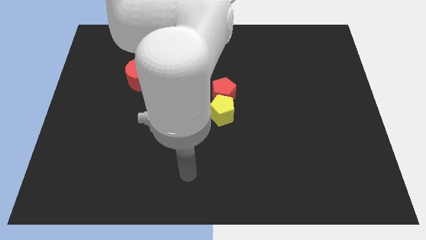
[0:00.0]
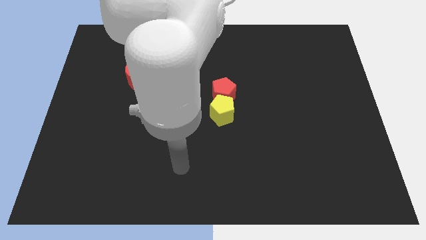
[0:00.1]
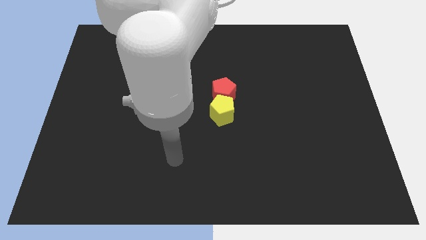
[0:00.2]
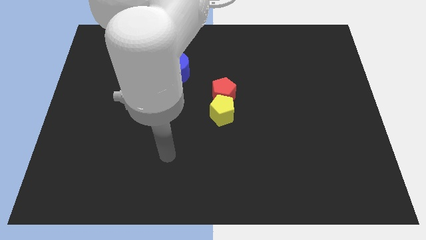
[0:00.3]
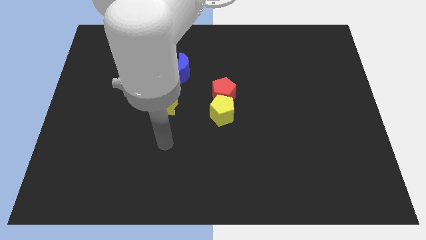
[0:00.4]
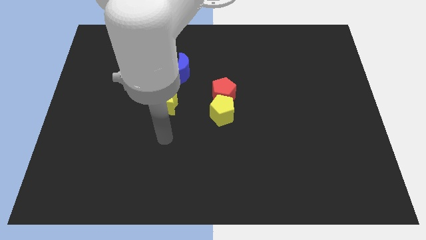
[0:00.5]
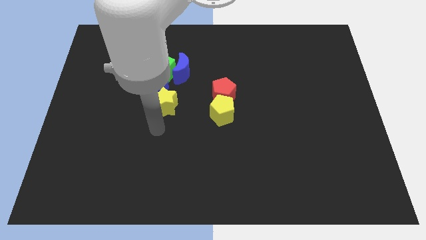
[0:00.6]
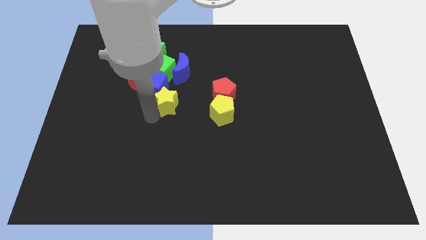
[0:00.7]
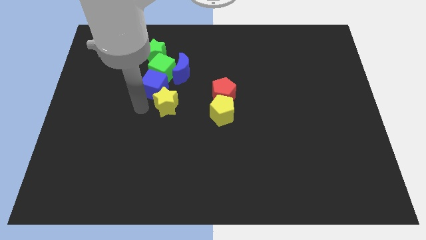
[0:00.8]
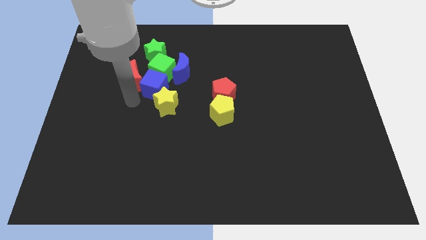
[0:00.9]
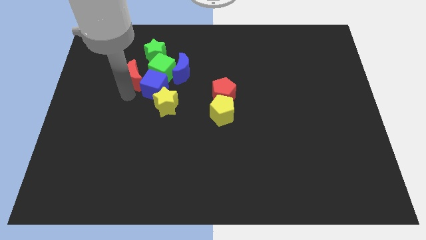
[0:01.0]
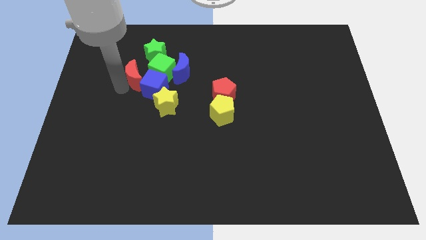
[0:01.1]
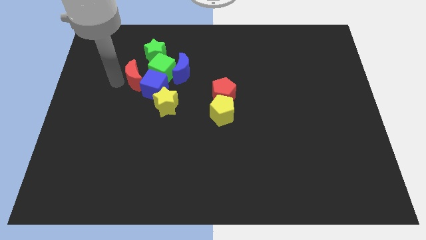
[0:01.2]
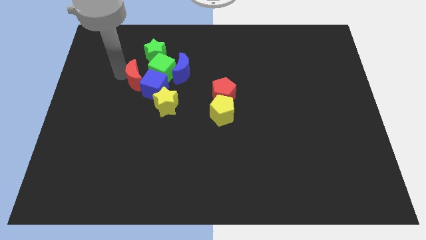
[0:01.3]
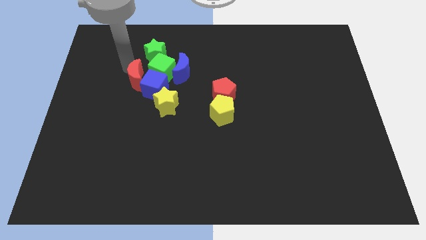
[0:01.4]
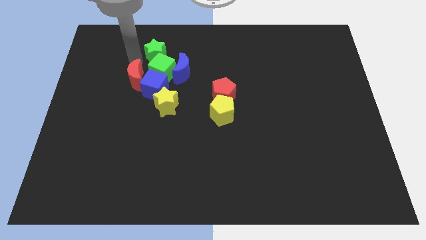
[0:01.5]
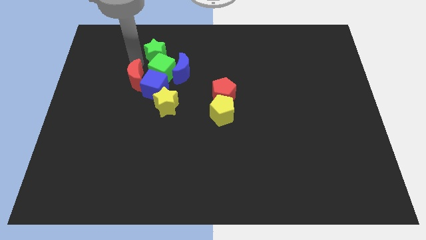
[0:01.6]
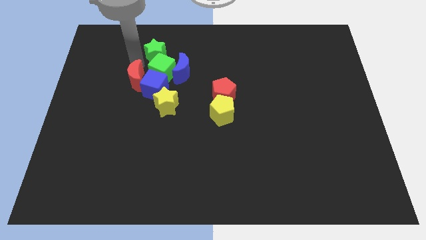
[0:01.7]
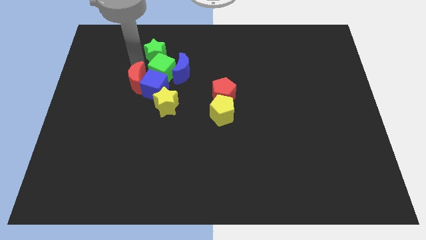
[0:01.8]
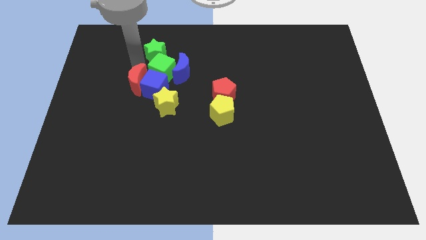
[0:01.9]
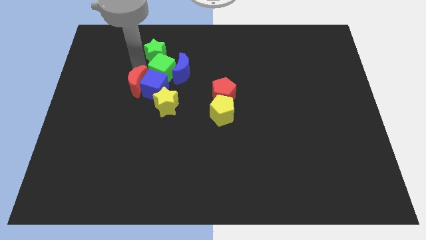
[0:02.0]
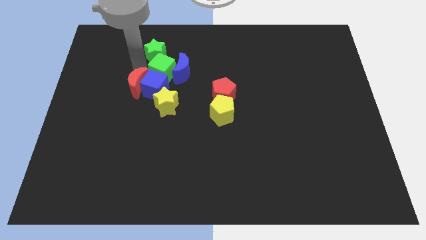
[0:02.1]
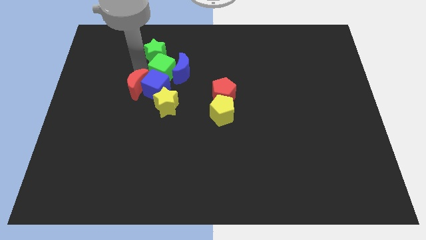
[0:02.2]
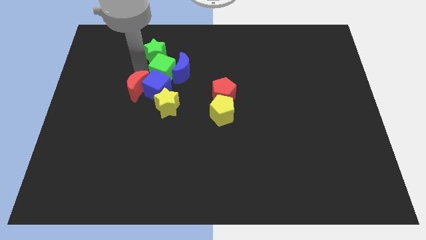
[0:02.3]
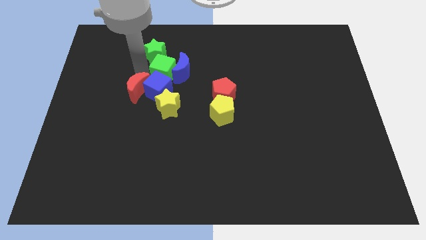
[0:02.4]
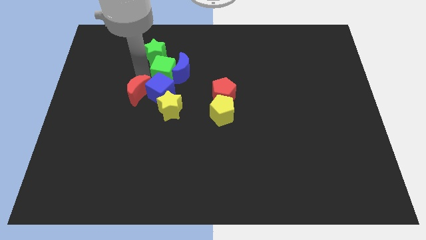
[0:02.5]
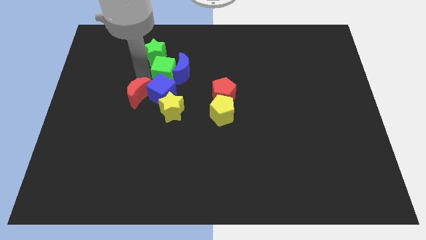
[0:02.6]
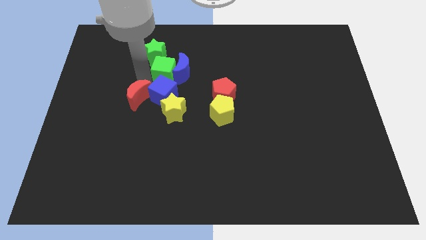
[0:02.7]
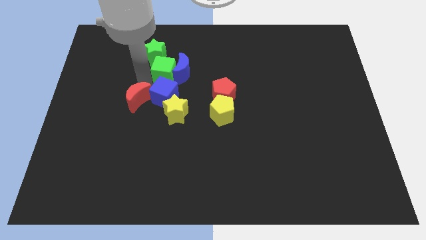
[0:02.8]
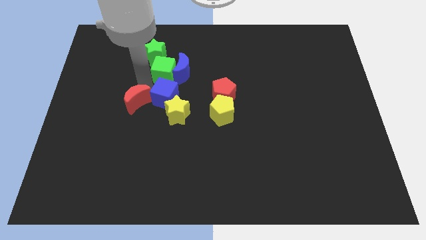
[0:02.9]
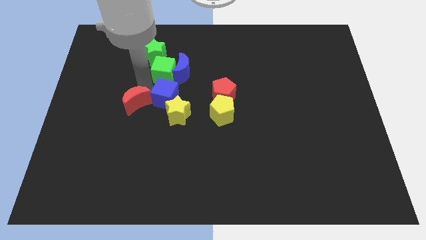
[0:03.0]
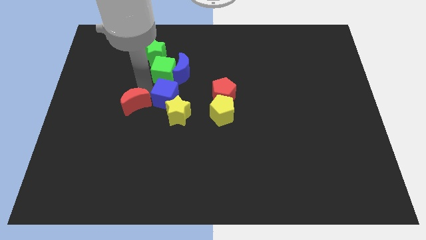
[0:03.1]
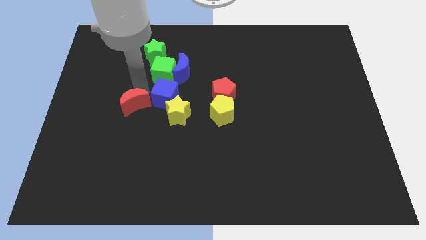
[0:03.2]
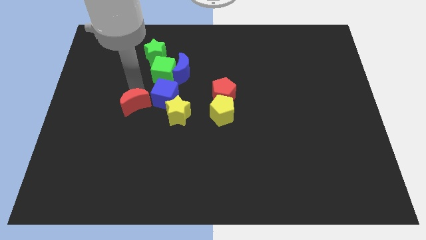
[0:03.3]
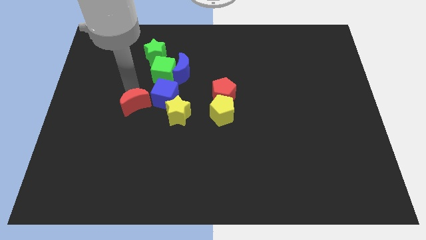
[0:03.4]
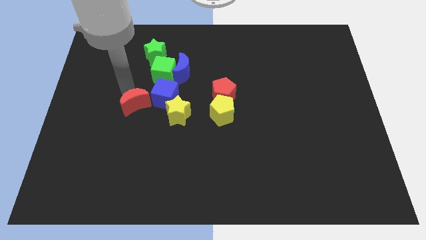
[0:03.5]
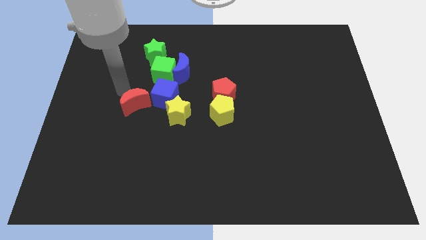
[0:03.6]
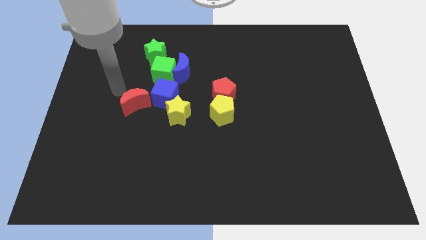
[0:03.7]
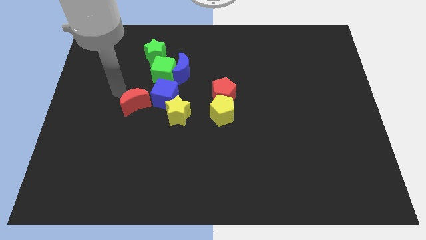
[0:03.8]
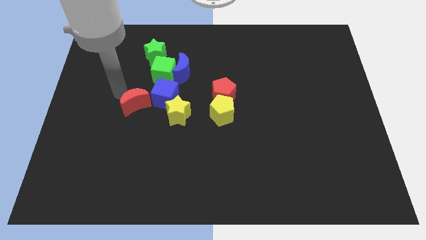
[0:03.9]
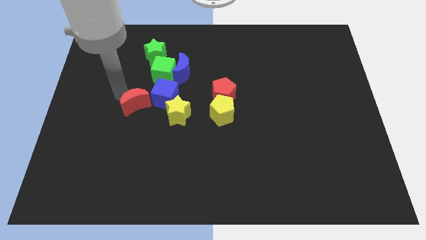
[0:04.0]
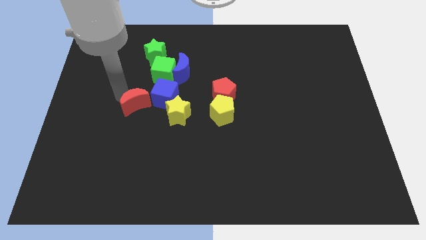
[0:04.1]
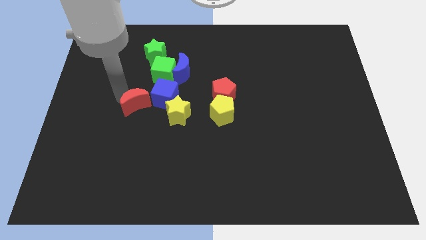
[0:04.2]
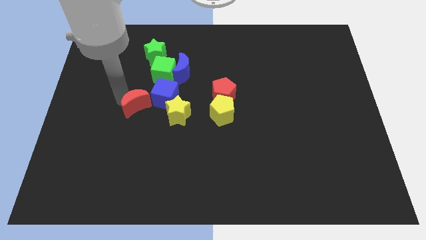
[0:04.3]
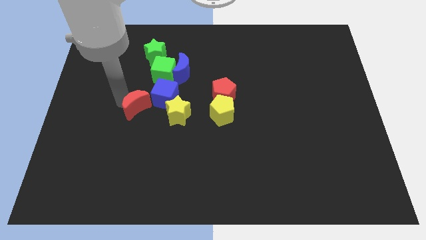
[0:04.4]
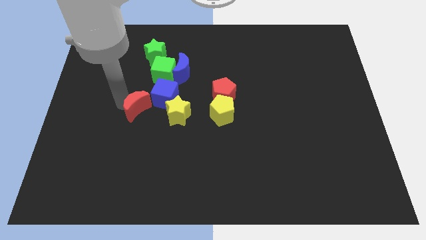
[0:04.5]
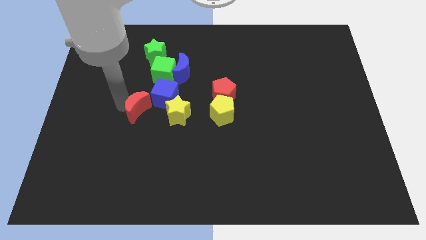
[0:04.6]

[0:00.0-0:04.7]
slightly push the red moon down and to the right diagonally

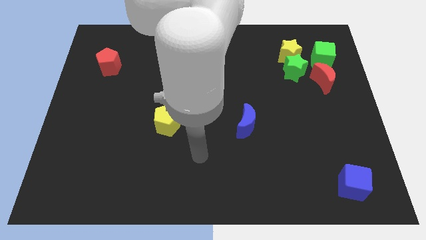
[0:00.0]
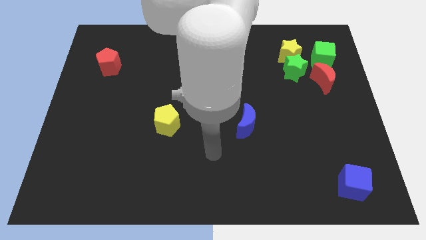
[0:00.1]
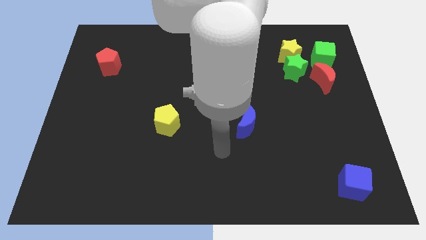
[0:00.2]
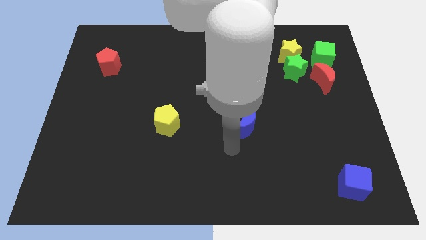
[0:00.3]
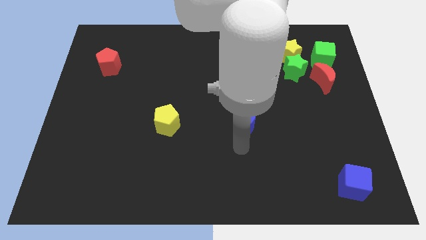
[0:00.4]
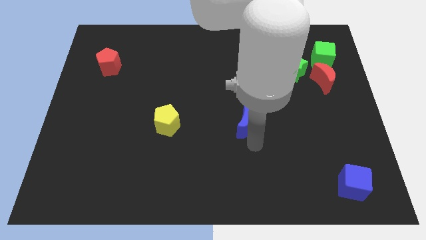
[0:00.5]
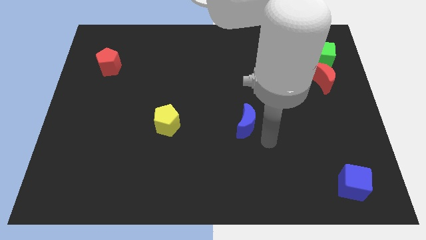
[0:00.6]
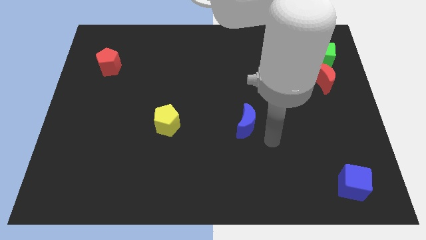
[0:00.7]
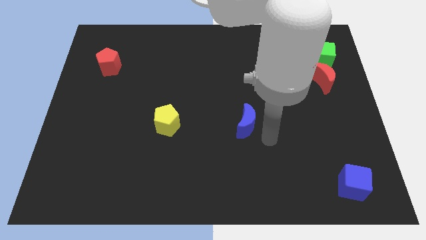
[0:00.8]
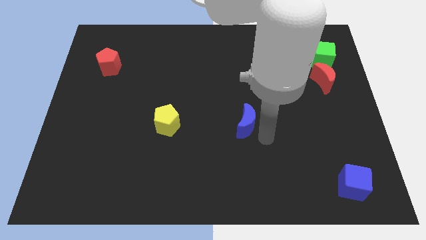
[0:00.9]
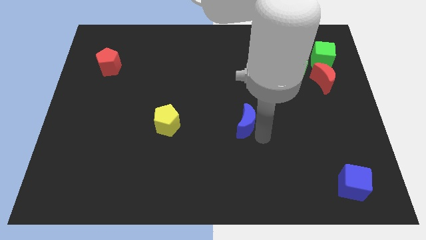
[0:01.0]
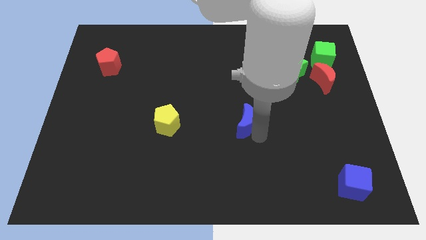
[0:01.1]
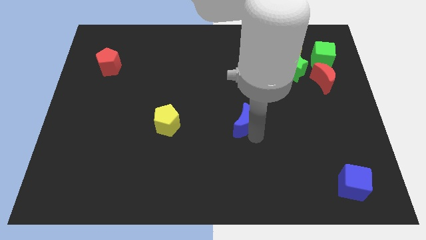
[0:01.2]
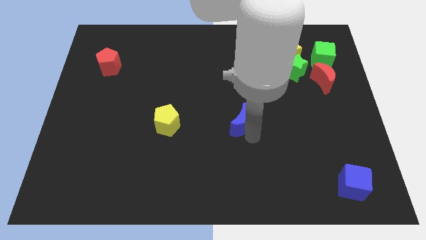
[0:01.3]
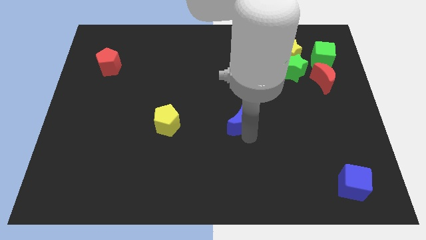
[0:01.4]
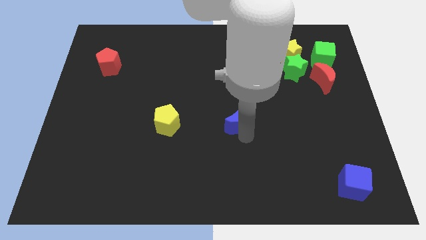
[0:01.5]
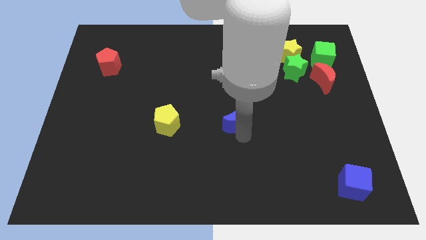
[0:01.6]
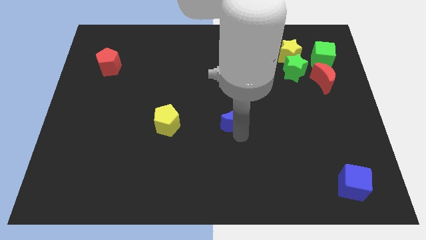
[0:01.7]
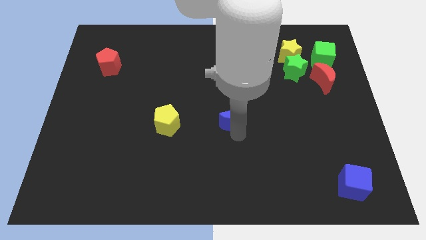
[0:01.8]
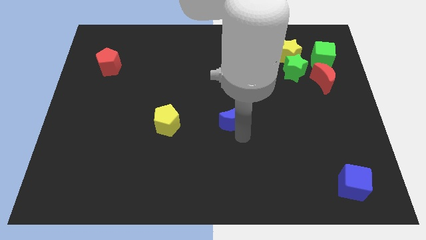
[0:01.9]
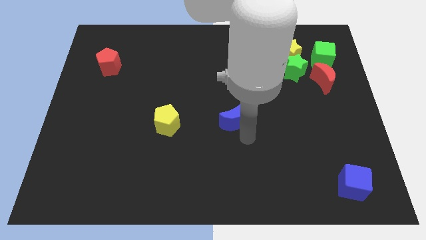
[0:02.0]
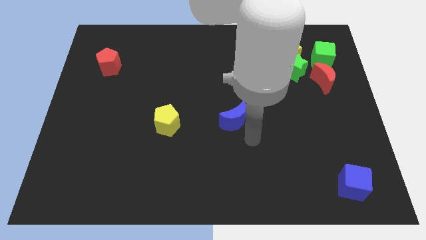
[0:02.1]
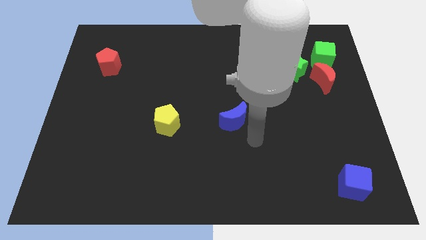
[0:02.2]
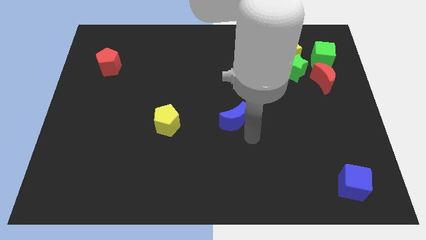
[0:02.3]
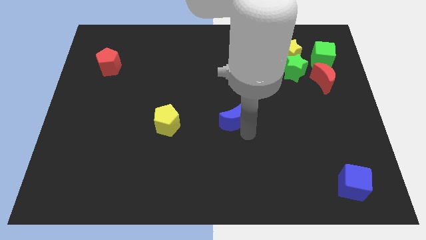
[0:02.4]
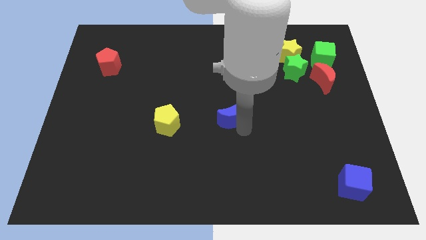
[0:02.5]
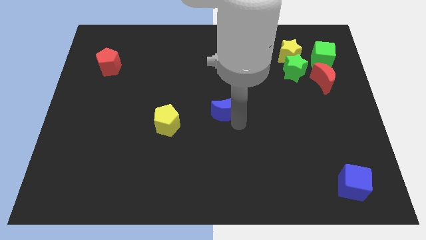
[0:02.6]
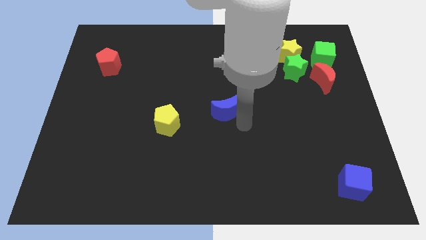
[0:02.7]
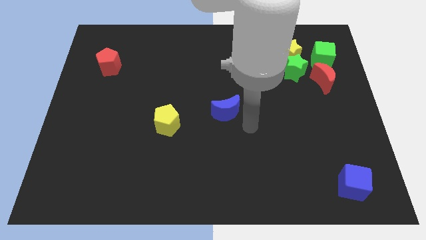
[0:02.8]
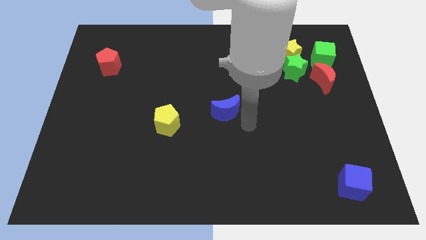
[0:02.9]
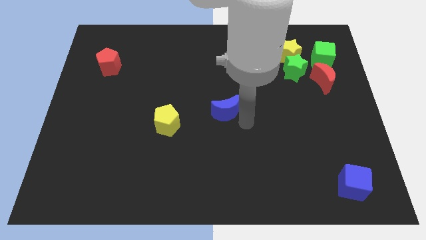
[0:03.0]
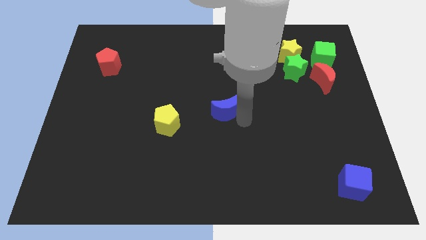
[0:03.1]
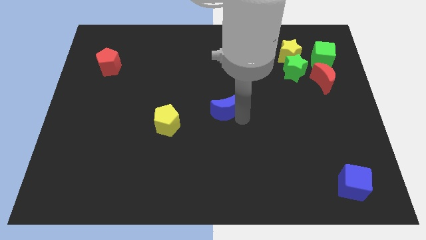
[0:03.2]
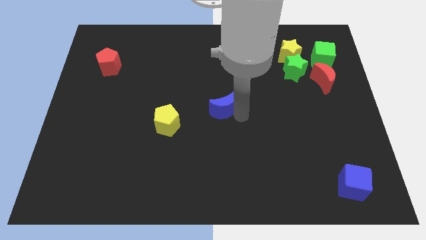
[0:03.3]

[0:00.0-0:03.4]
move the blue moon diagonally up and to the left slightly
